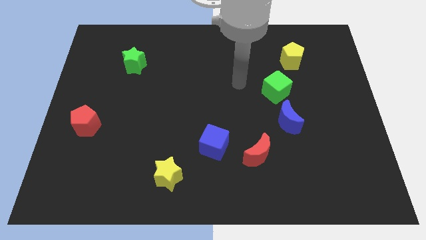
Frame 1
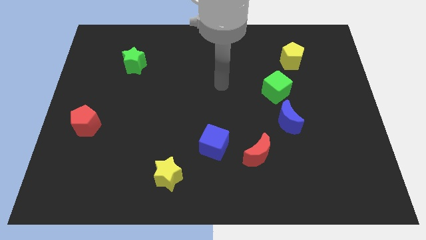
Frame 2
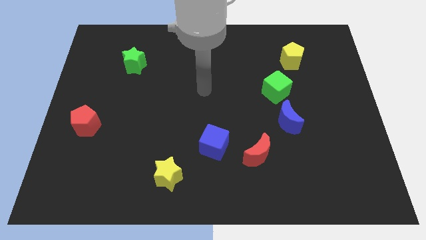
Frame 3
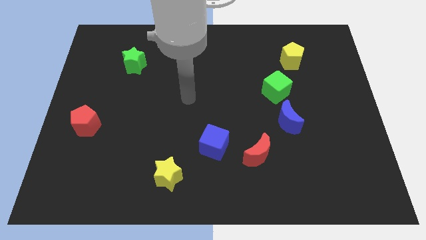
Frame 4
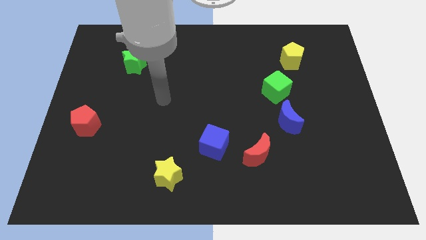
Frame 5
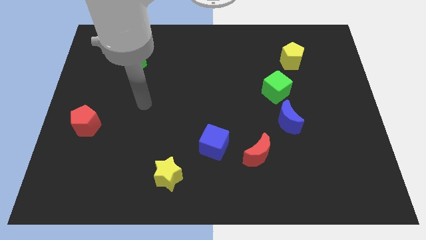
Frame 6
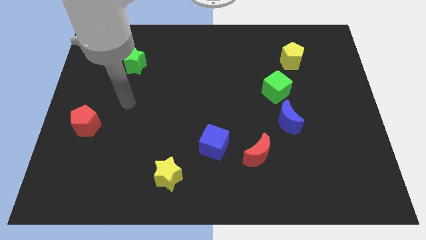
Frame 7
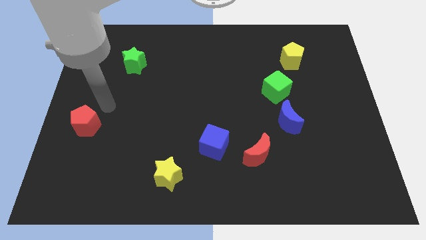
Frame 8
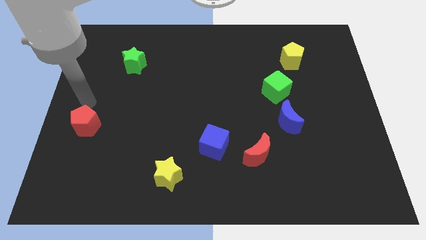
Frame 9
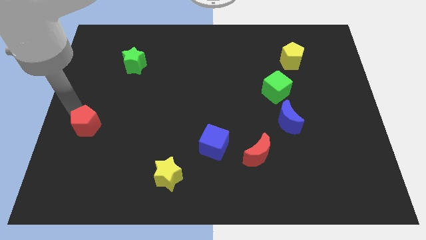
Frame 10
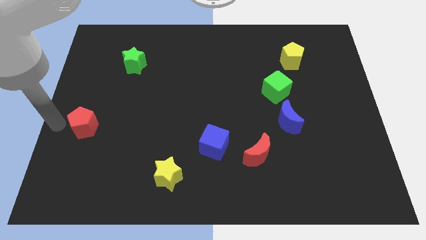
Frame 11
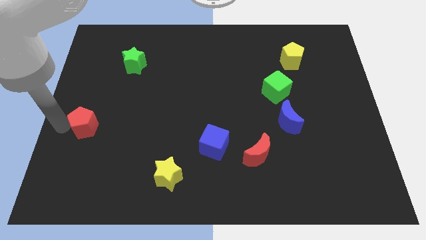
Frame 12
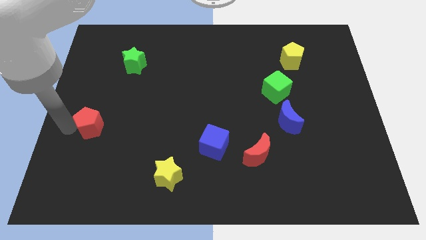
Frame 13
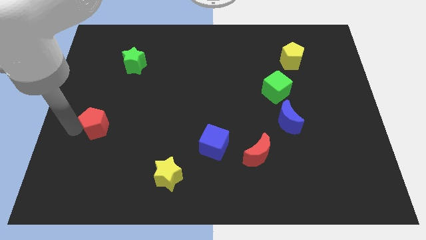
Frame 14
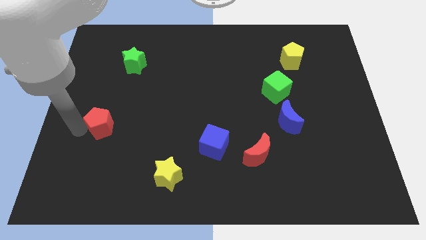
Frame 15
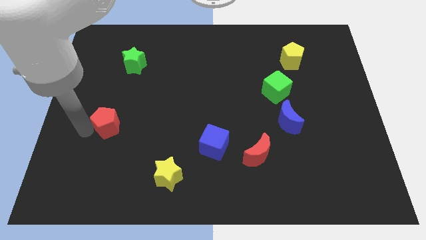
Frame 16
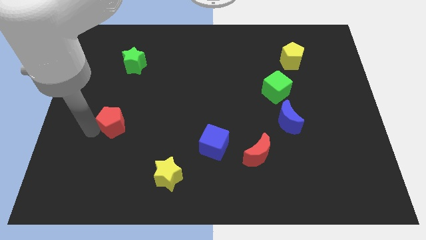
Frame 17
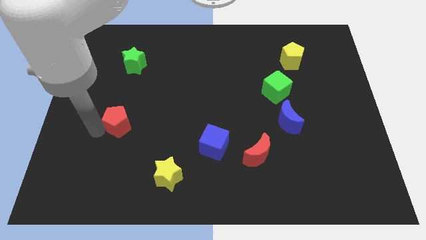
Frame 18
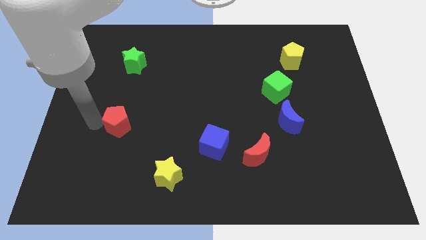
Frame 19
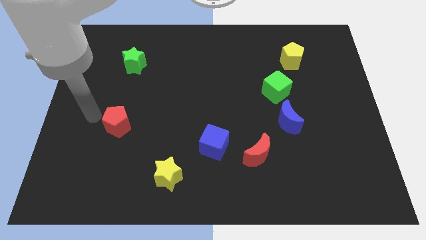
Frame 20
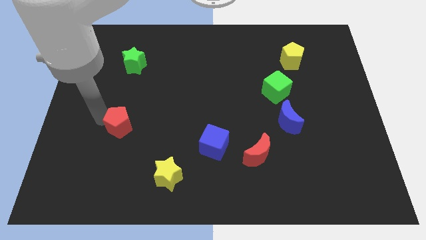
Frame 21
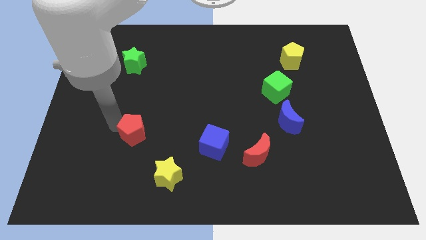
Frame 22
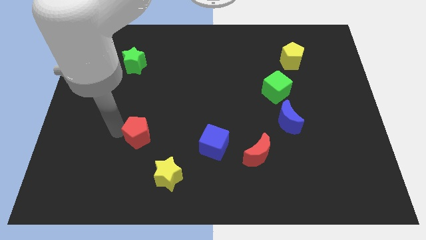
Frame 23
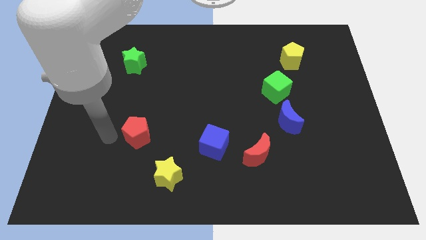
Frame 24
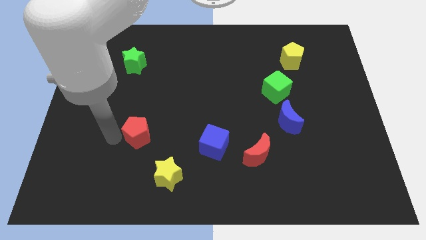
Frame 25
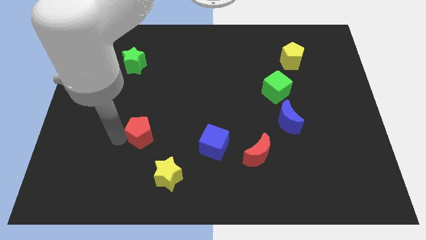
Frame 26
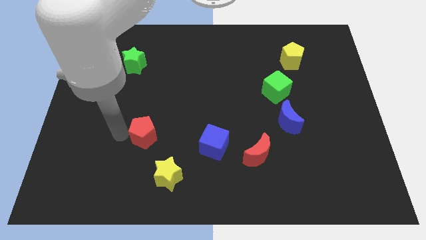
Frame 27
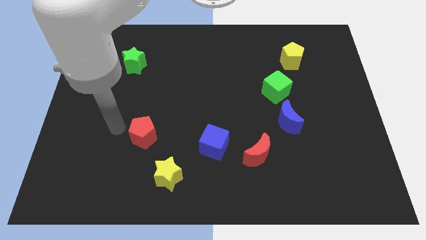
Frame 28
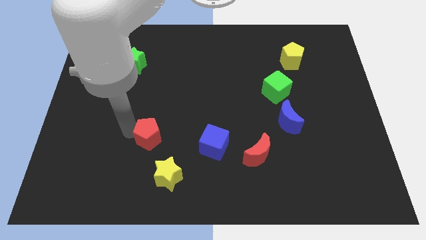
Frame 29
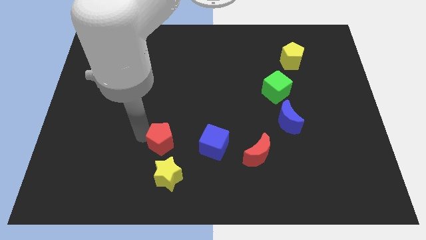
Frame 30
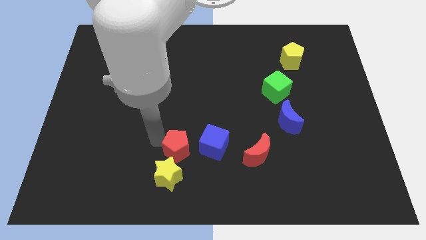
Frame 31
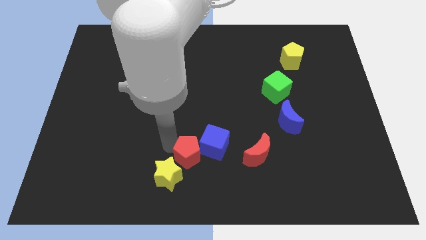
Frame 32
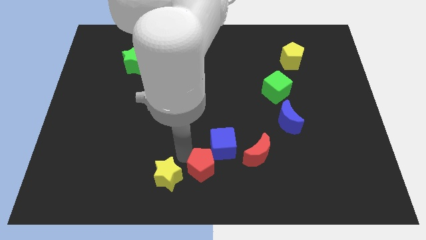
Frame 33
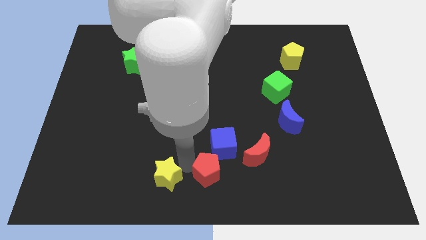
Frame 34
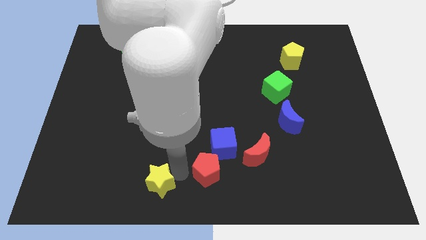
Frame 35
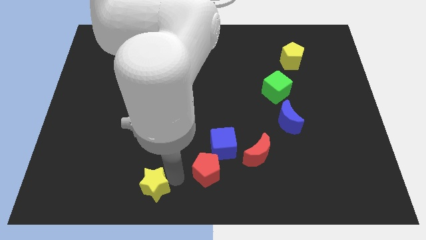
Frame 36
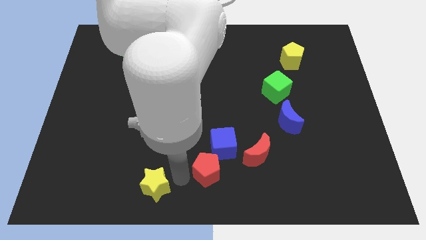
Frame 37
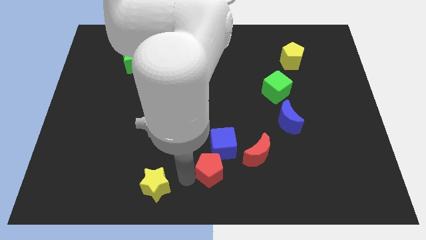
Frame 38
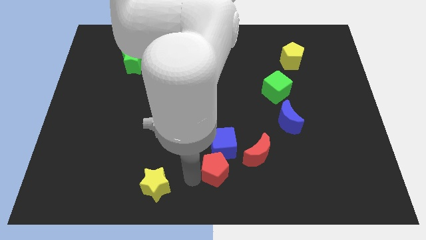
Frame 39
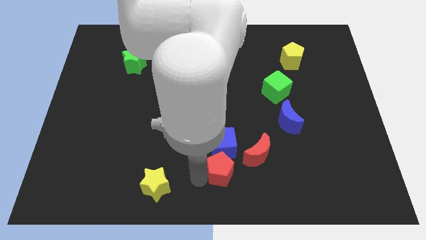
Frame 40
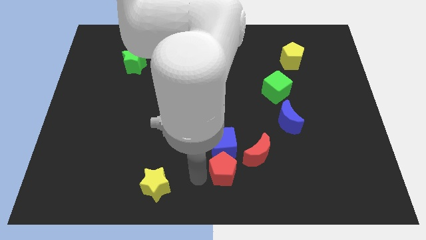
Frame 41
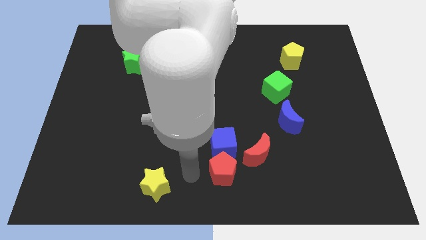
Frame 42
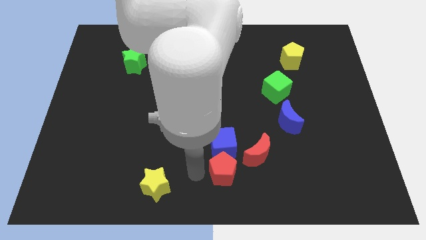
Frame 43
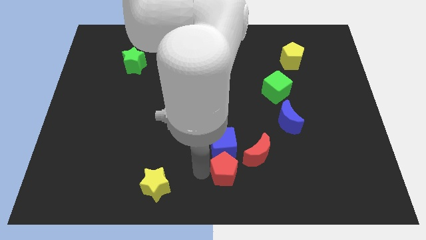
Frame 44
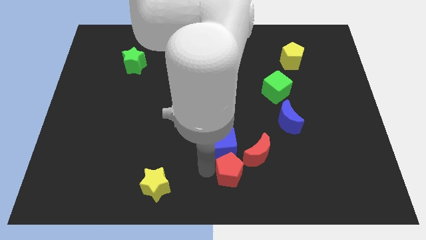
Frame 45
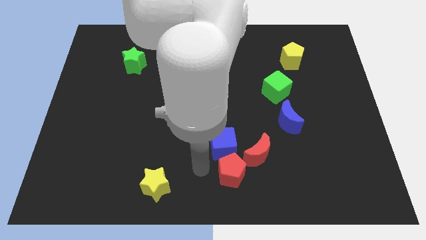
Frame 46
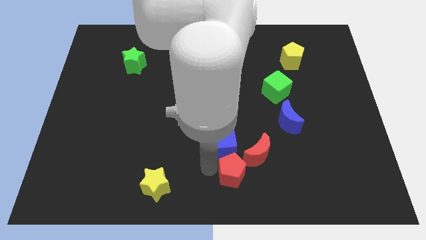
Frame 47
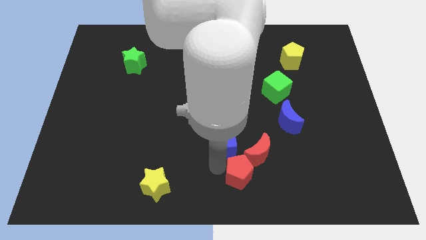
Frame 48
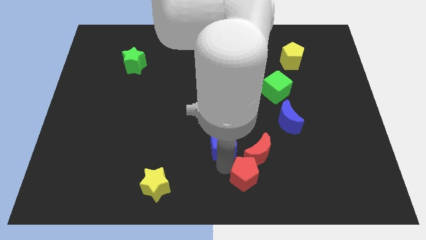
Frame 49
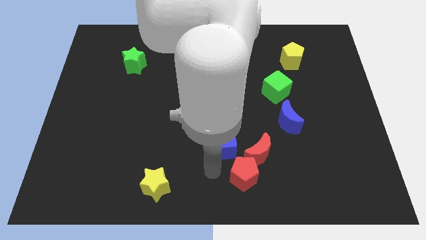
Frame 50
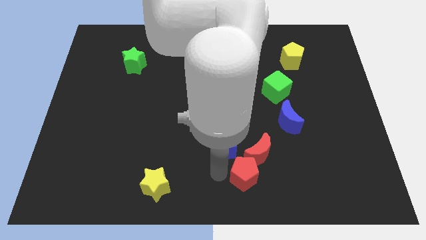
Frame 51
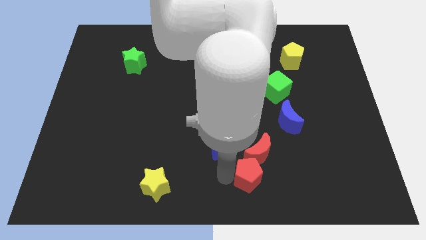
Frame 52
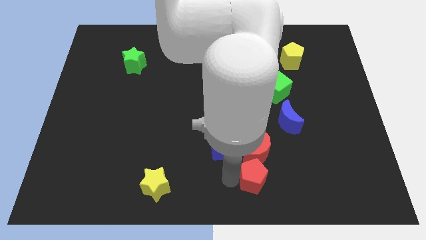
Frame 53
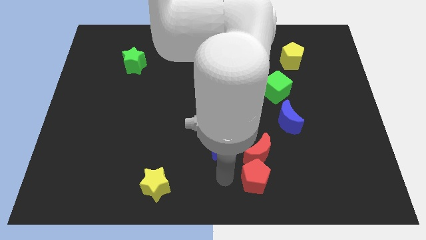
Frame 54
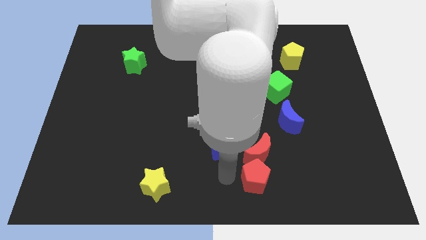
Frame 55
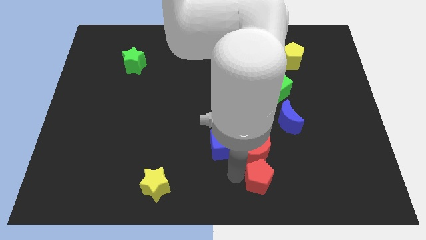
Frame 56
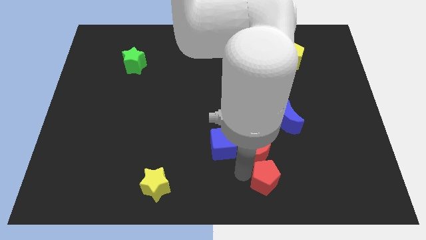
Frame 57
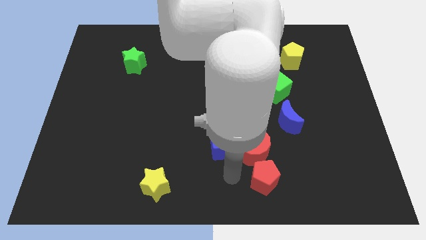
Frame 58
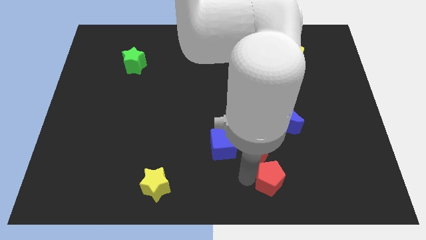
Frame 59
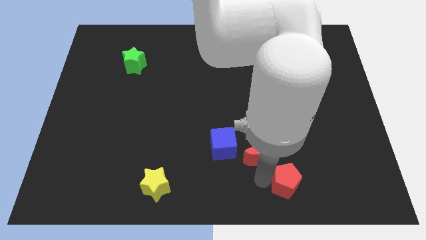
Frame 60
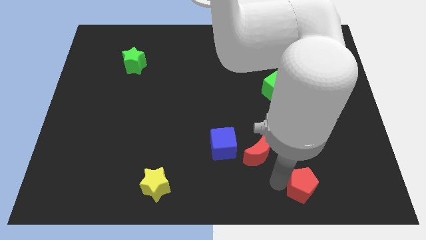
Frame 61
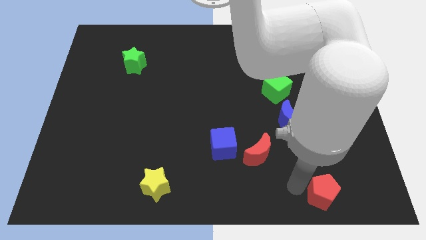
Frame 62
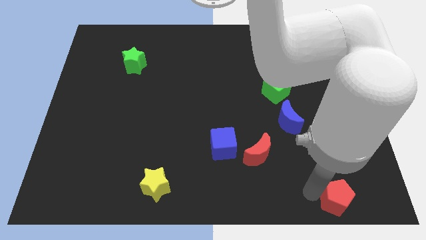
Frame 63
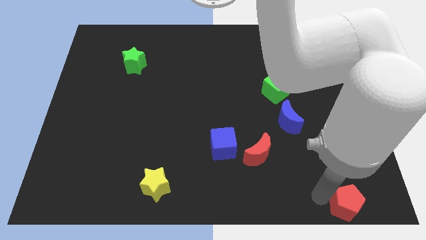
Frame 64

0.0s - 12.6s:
put the red pentagon to the bottom right corner
